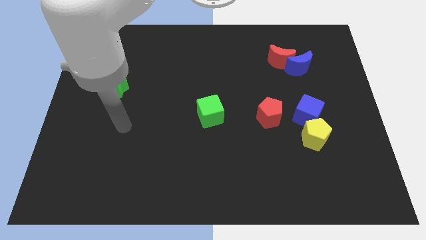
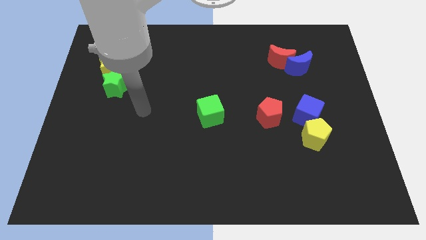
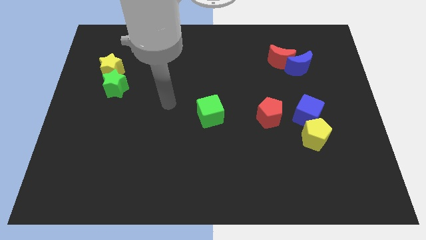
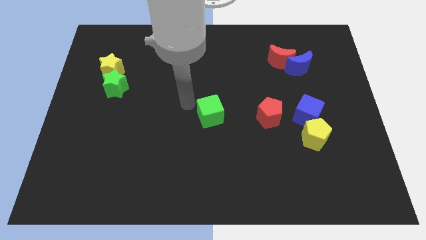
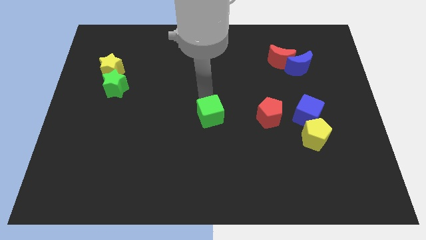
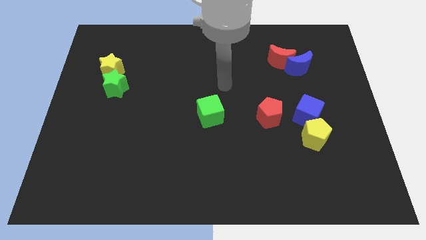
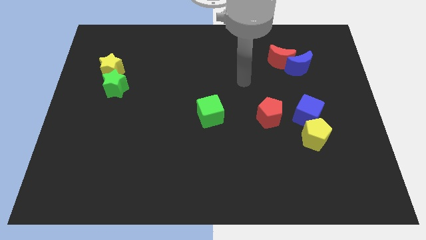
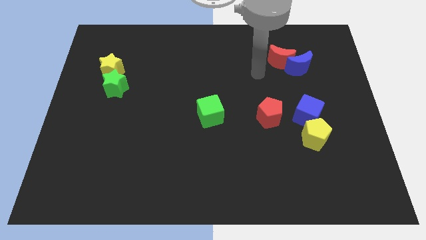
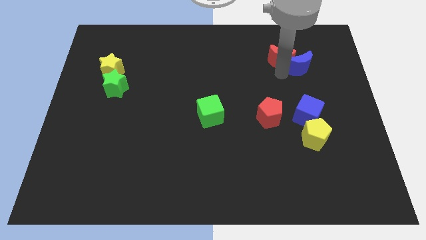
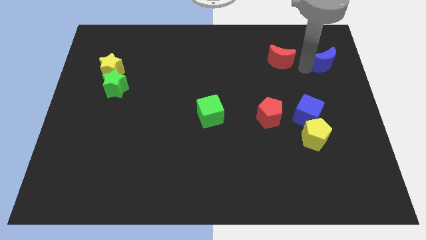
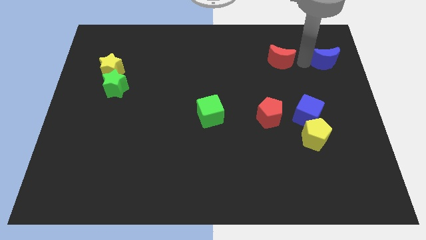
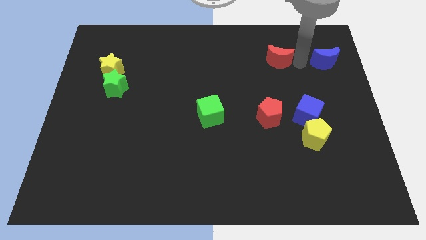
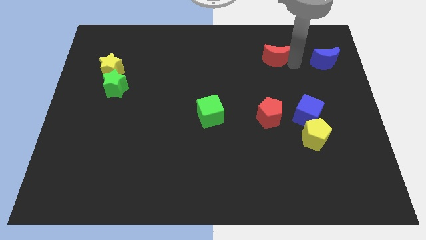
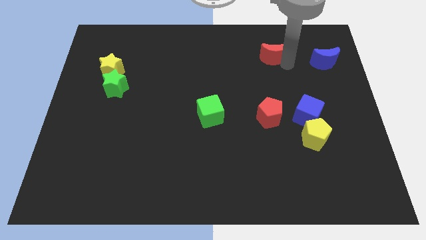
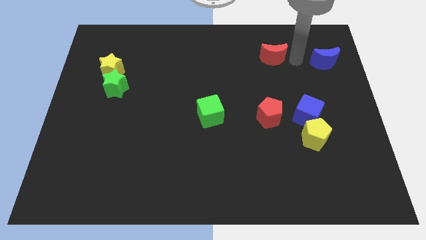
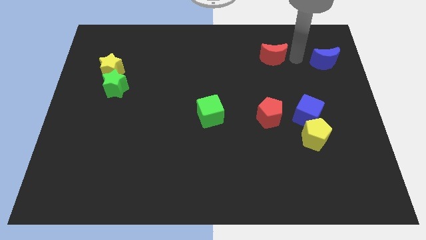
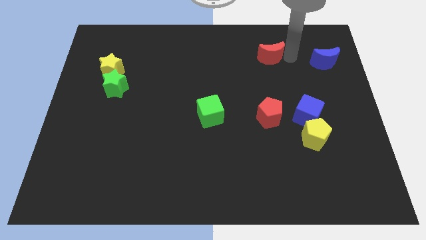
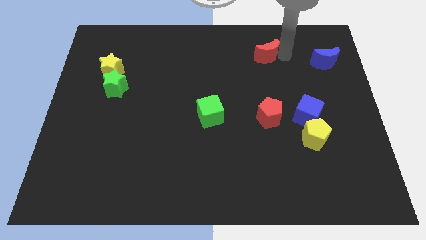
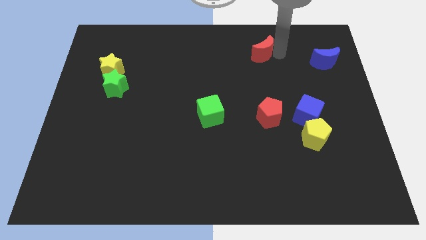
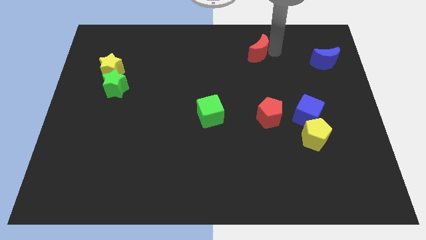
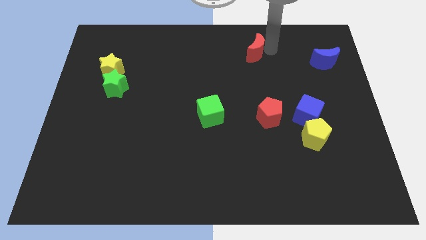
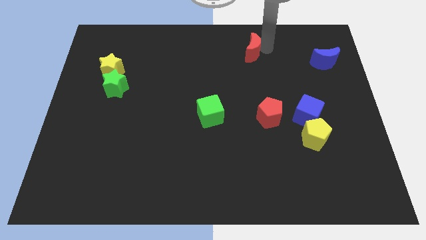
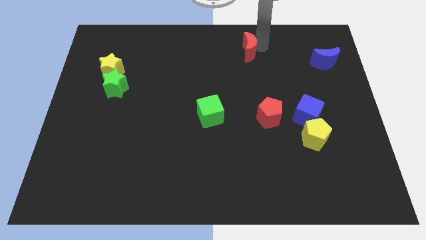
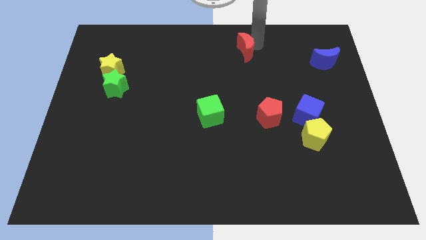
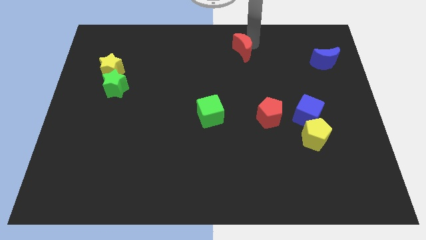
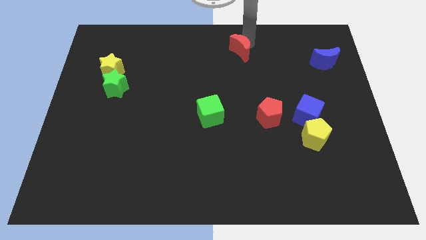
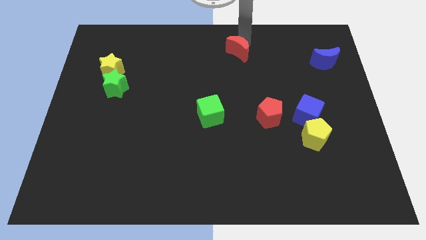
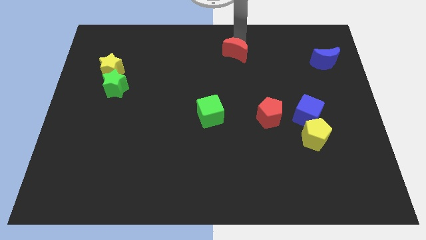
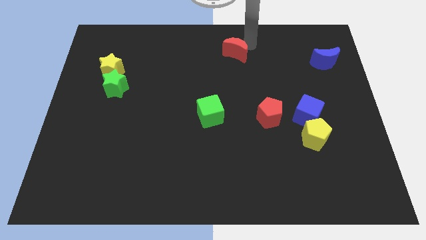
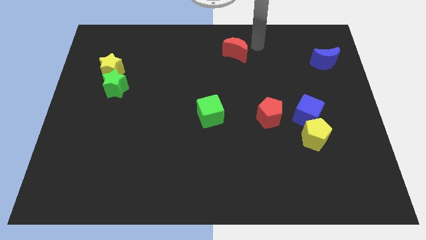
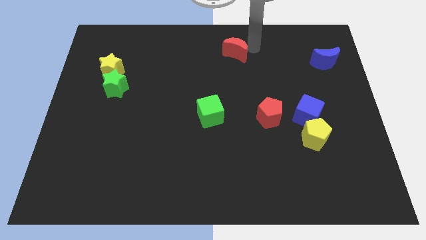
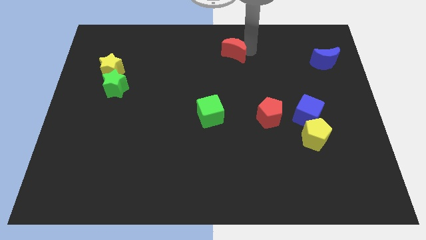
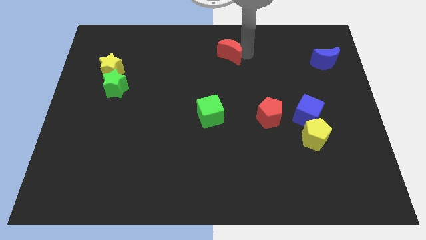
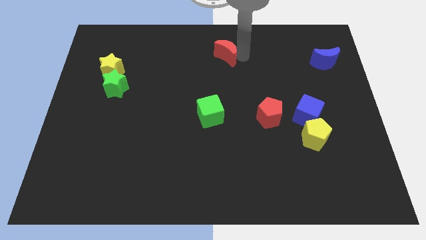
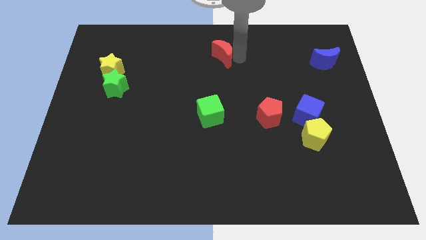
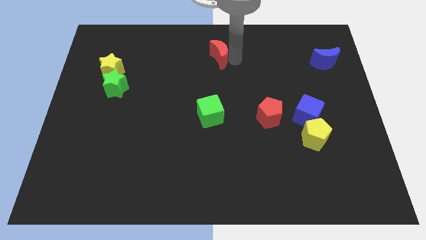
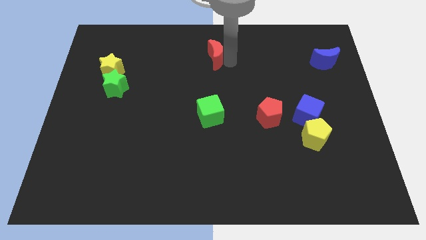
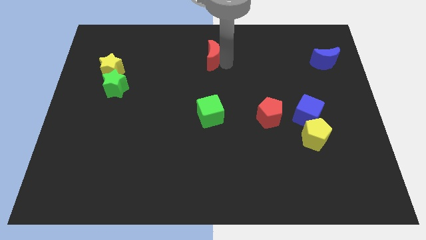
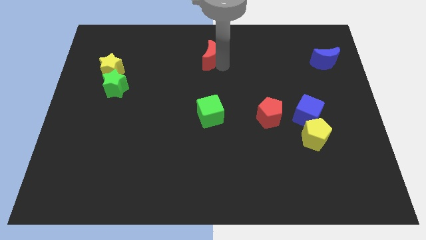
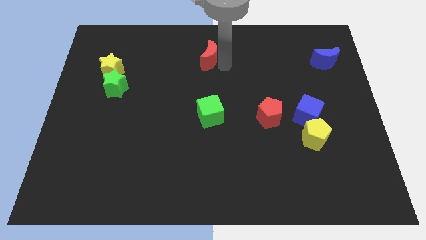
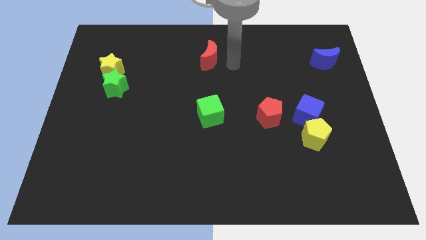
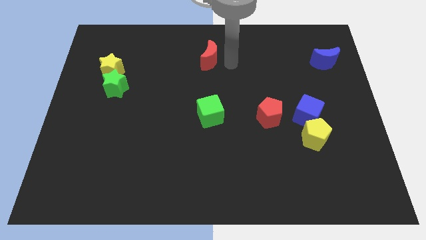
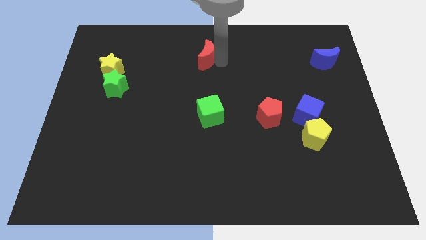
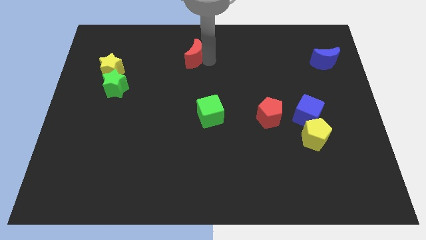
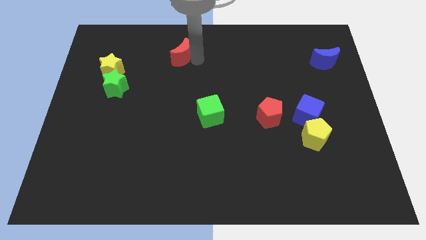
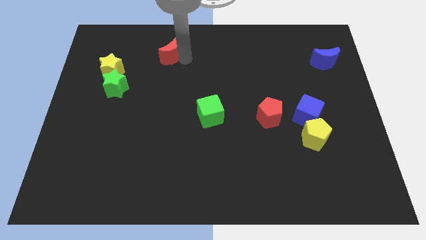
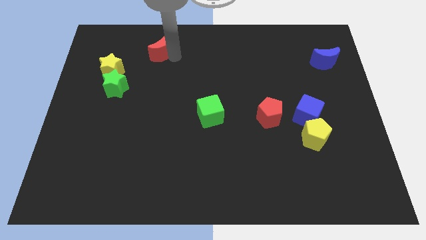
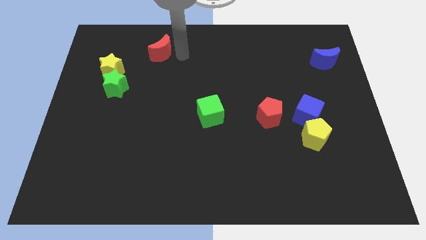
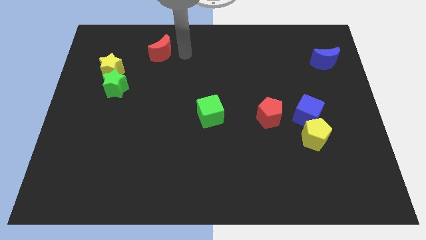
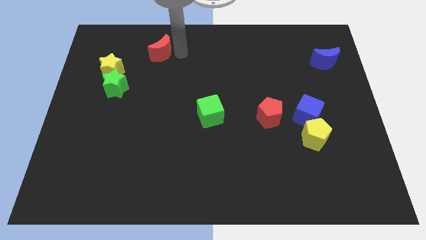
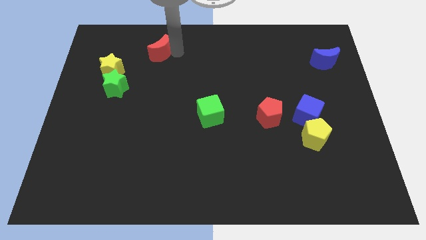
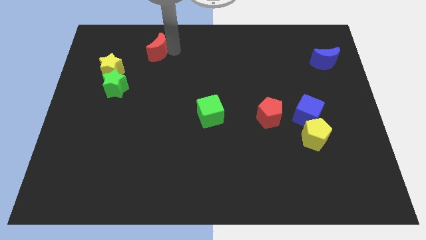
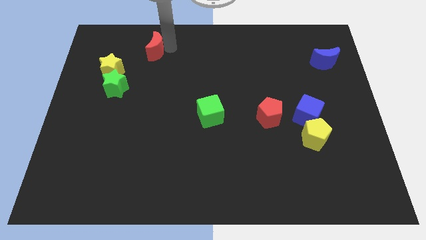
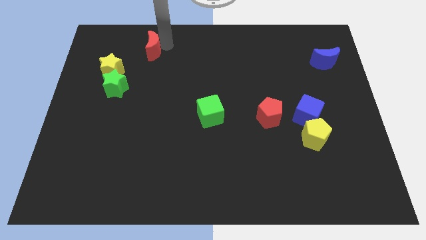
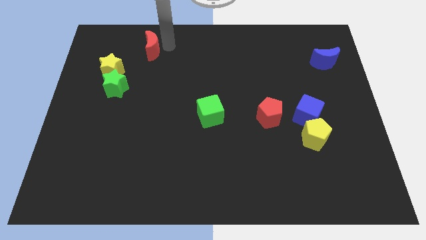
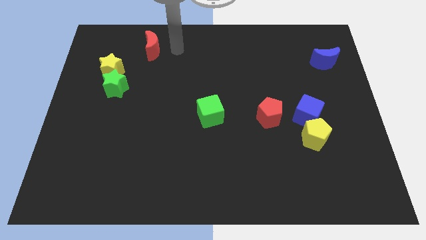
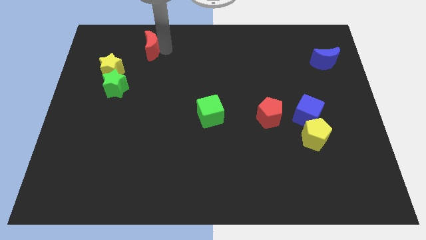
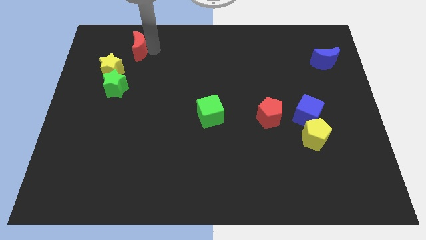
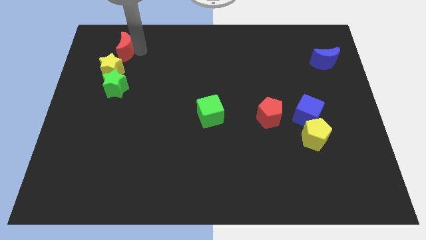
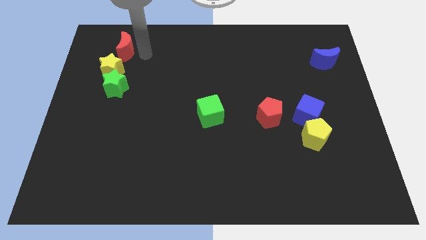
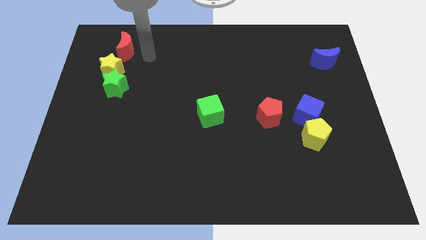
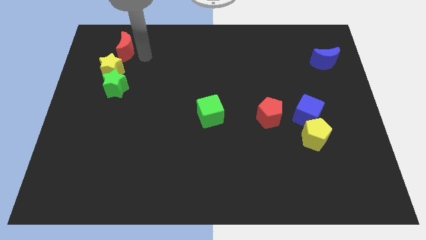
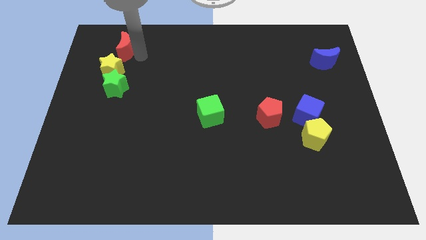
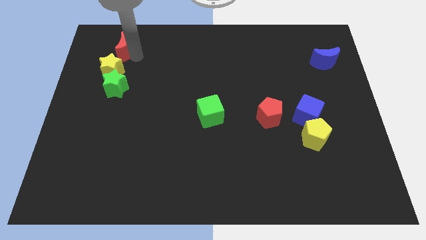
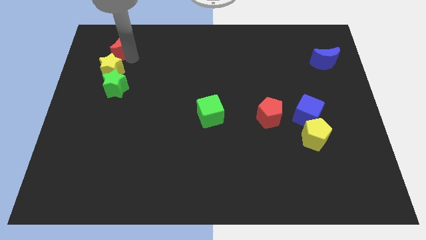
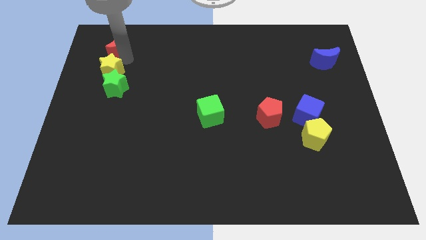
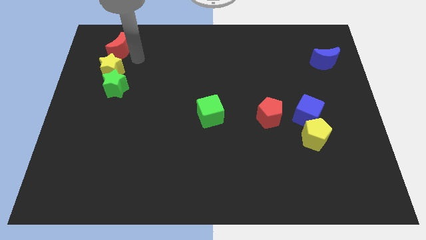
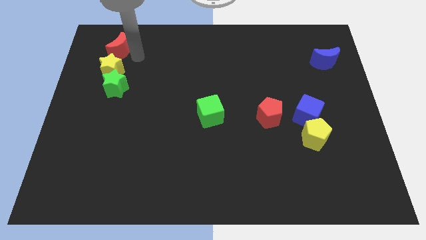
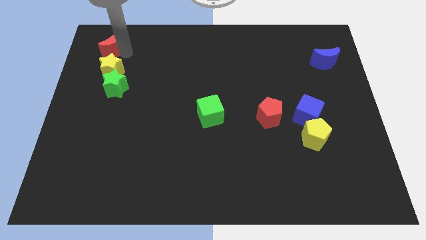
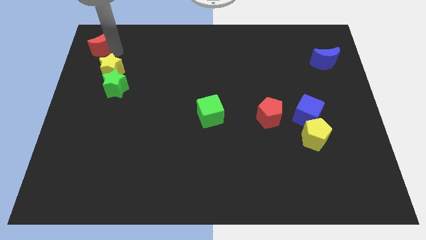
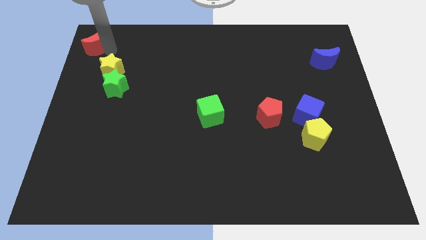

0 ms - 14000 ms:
push the red moon to the top left
